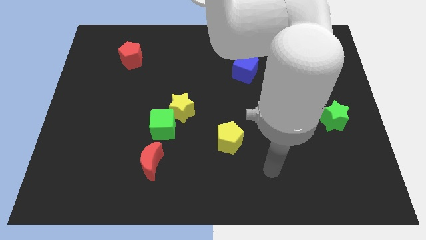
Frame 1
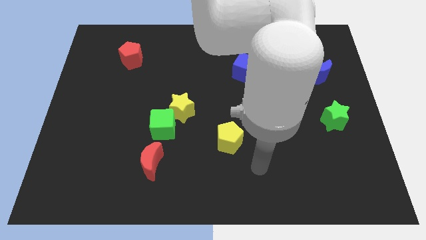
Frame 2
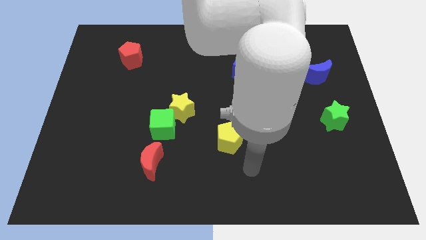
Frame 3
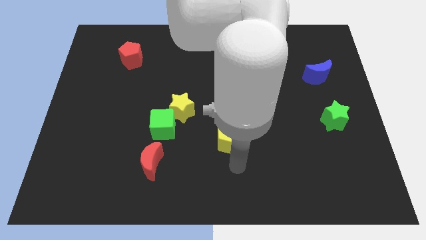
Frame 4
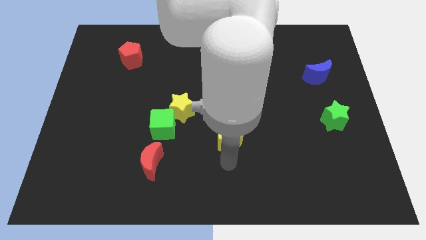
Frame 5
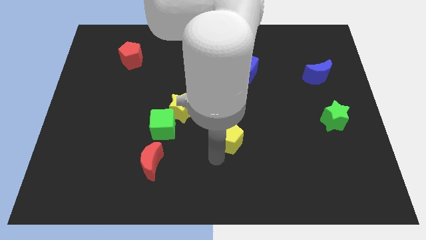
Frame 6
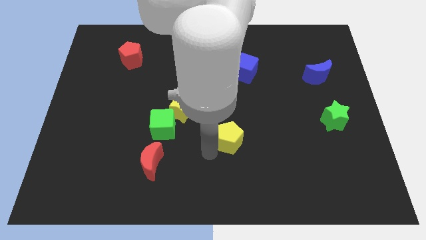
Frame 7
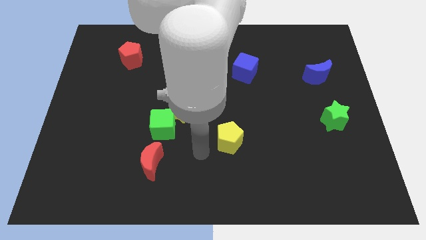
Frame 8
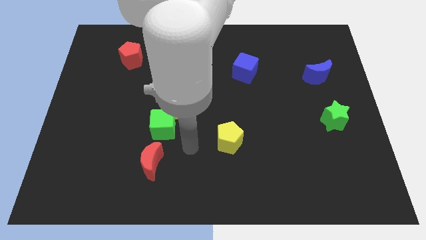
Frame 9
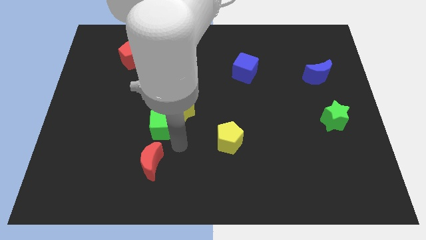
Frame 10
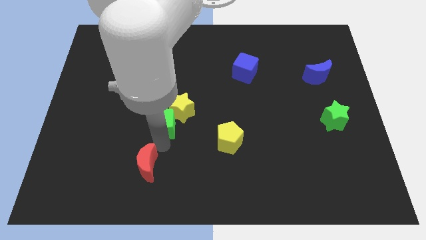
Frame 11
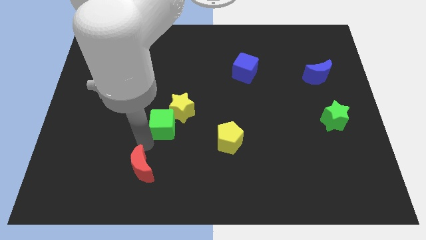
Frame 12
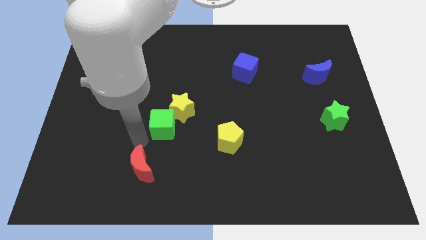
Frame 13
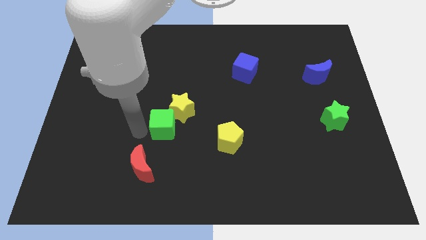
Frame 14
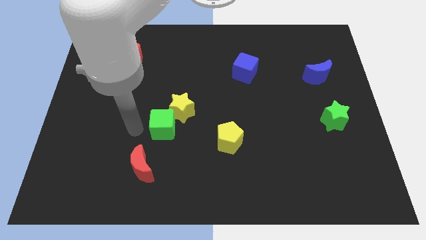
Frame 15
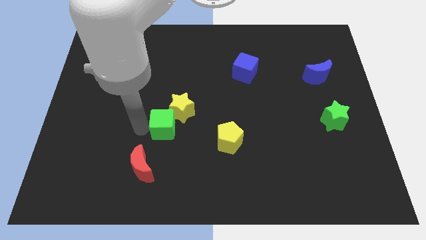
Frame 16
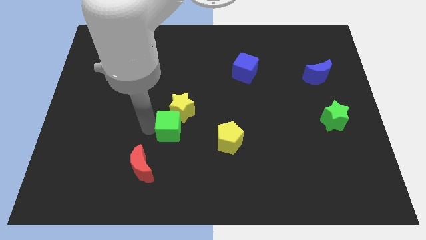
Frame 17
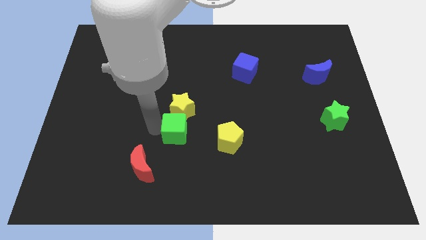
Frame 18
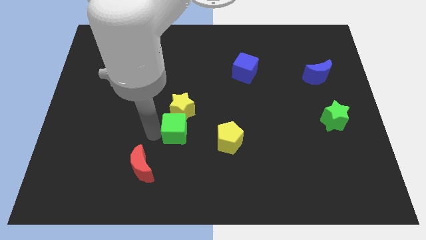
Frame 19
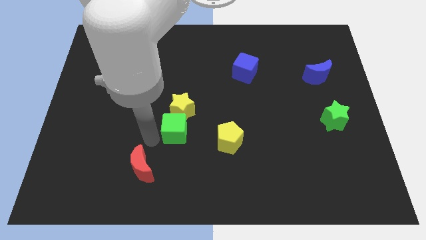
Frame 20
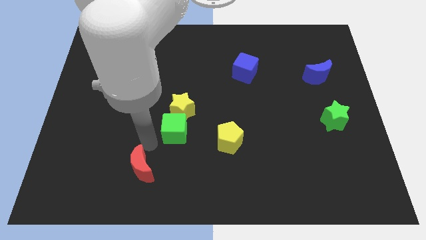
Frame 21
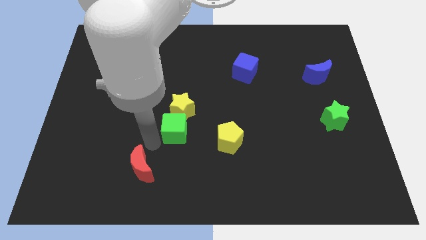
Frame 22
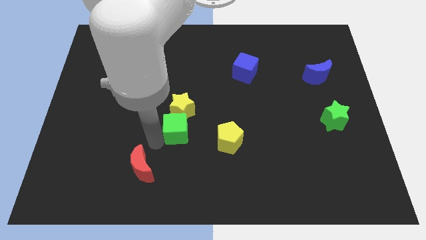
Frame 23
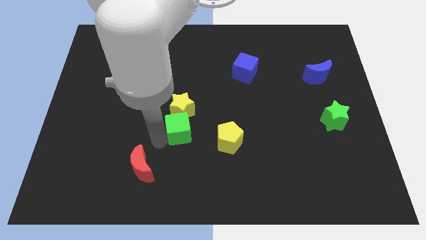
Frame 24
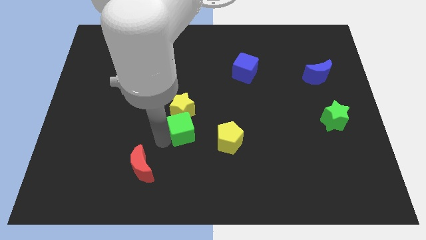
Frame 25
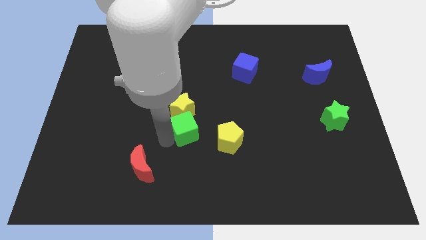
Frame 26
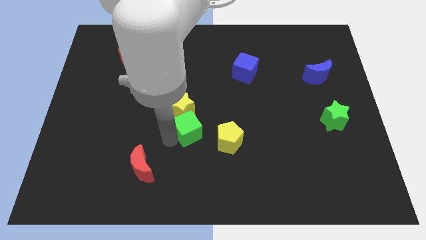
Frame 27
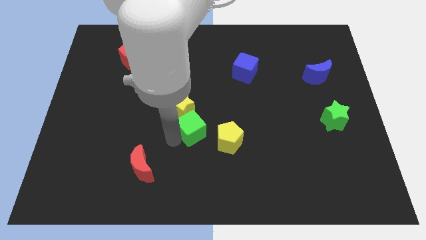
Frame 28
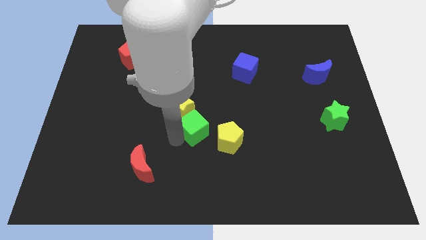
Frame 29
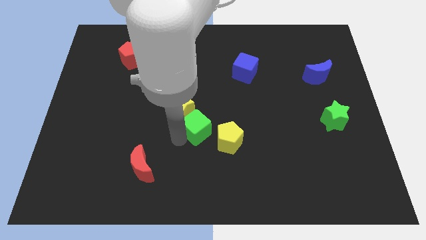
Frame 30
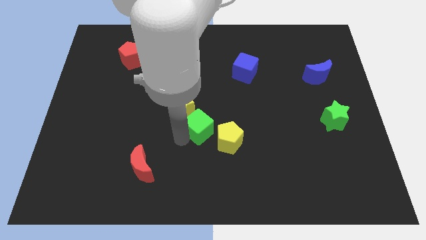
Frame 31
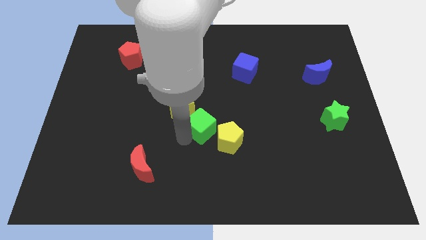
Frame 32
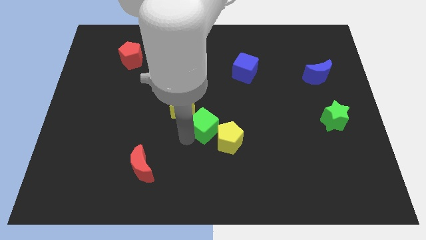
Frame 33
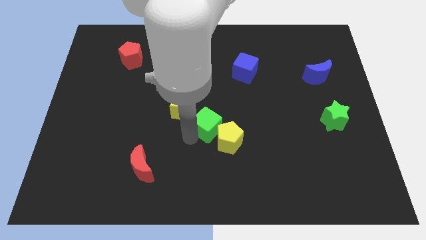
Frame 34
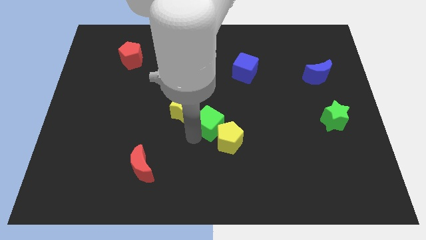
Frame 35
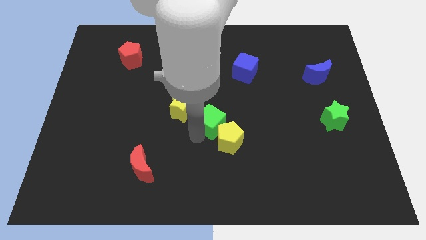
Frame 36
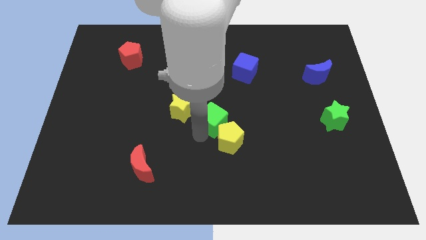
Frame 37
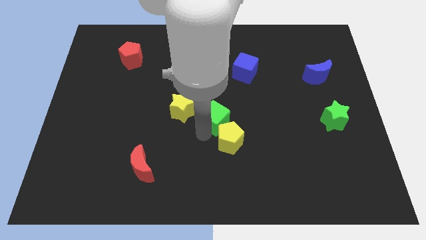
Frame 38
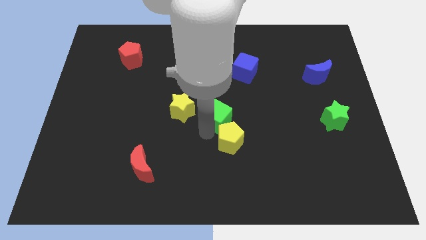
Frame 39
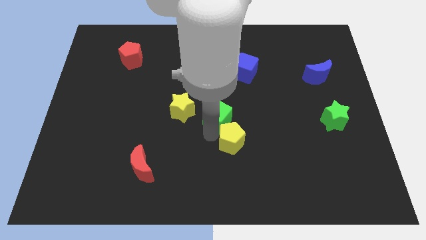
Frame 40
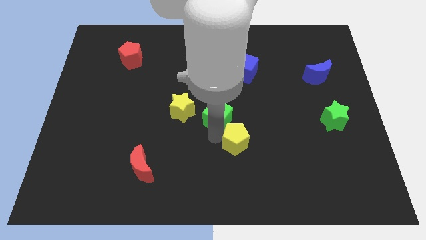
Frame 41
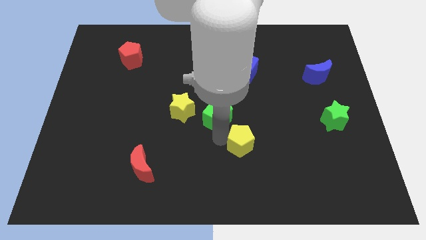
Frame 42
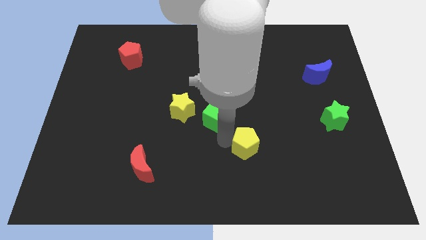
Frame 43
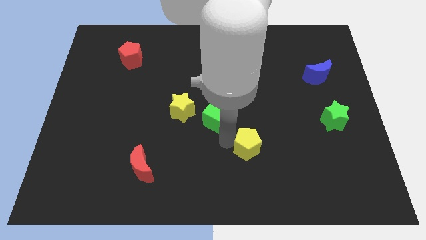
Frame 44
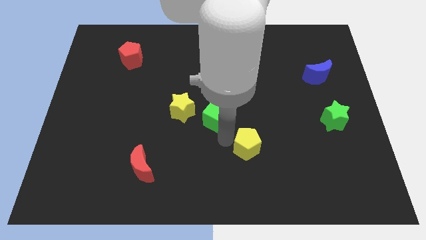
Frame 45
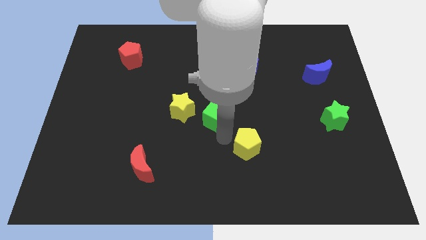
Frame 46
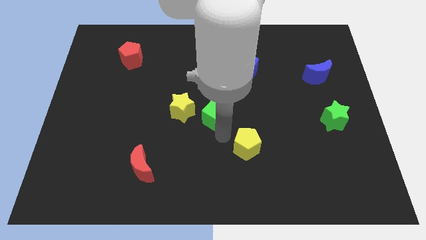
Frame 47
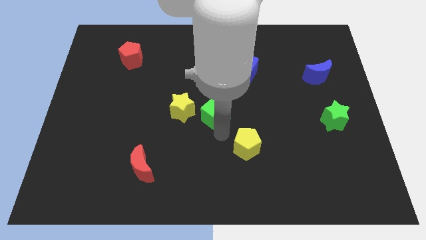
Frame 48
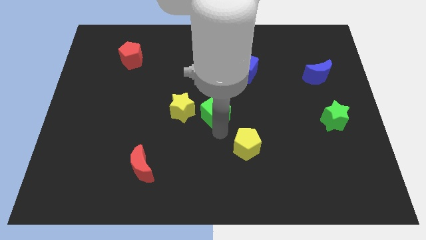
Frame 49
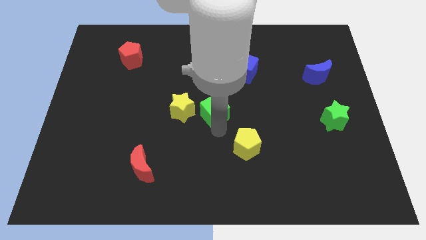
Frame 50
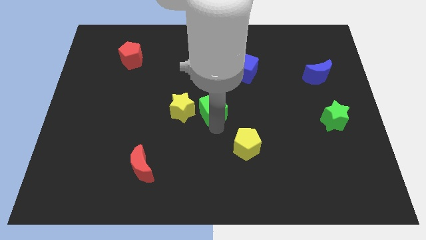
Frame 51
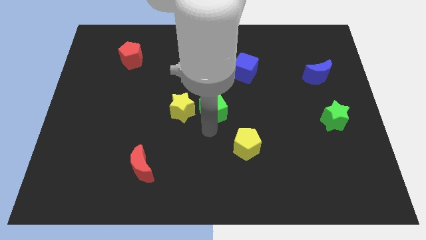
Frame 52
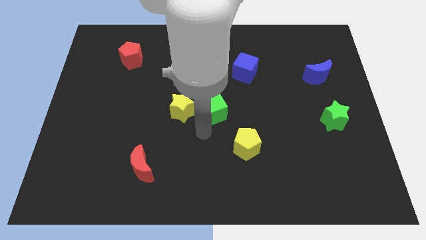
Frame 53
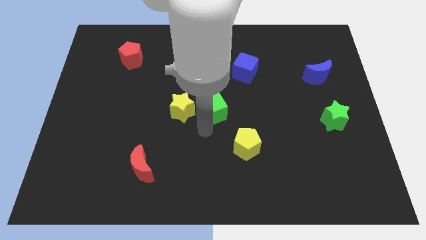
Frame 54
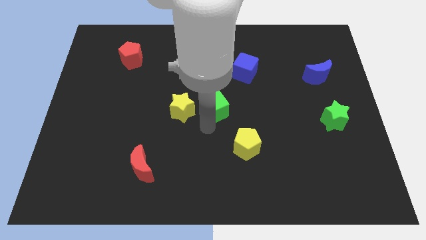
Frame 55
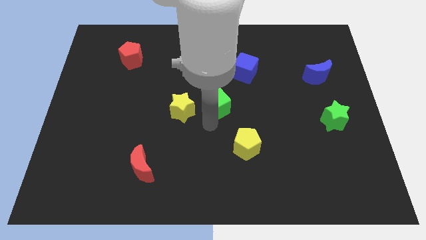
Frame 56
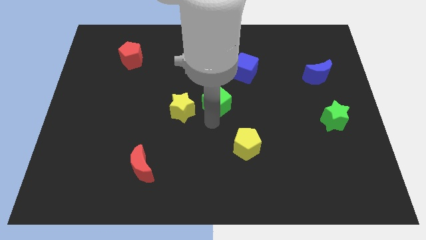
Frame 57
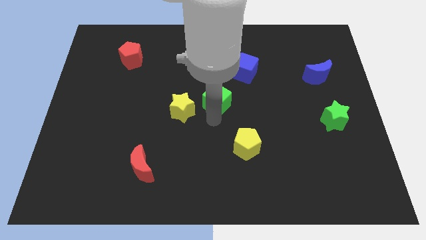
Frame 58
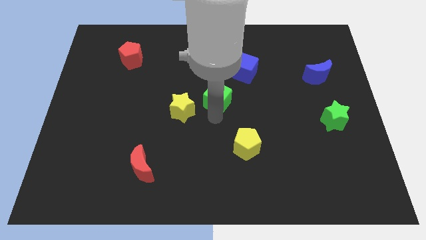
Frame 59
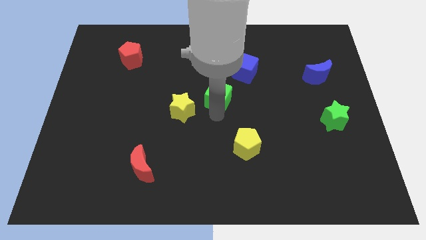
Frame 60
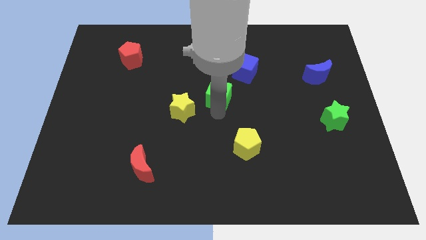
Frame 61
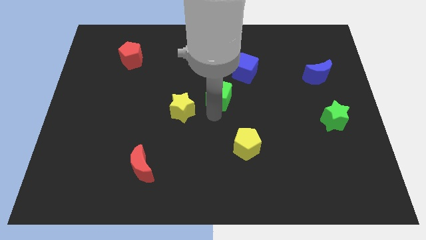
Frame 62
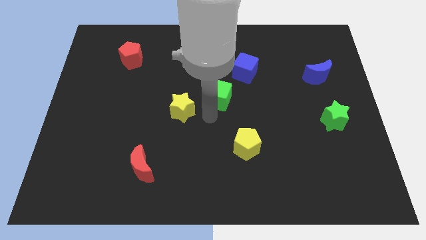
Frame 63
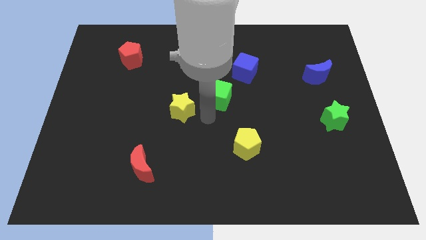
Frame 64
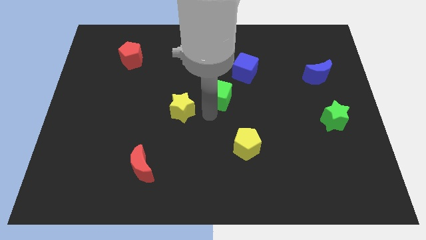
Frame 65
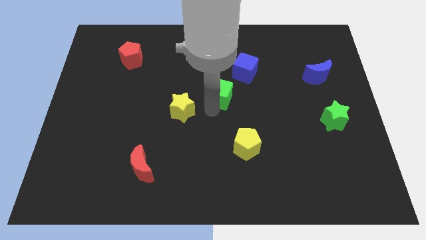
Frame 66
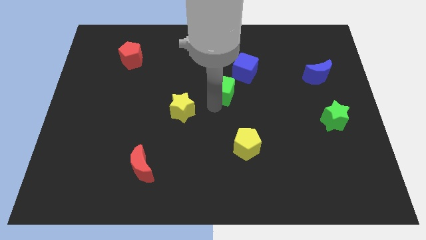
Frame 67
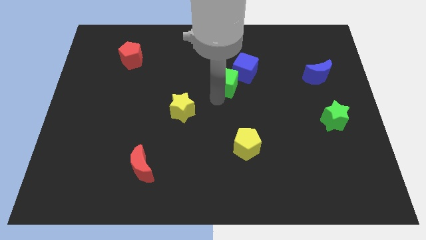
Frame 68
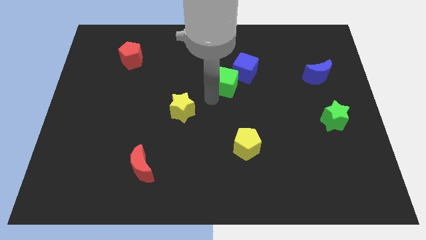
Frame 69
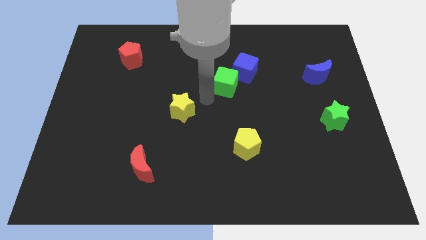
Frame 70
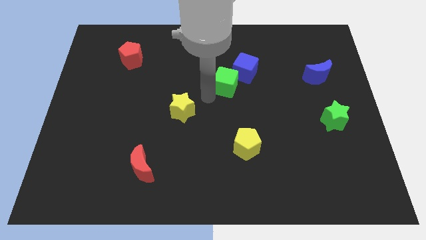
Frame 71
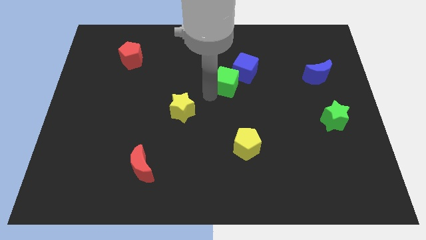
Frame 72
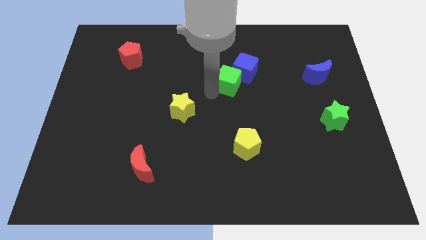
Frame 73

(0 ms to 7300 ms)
move the green cube towards the blue cube
